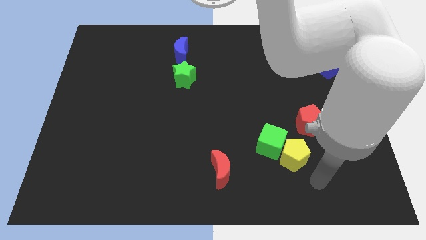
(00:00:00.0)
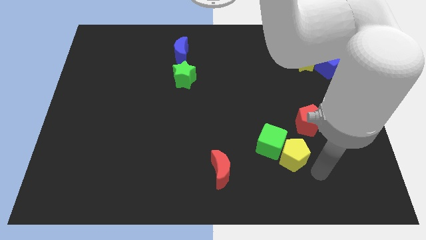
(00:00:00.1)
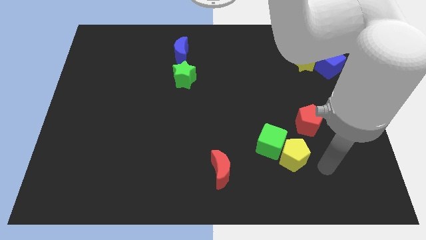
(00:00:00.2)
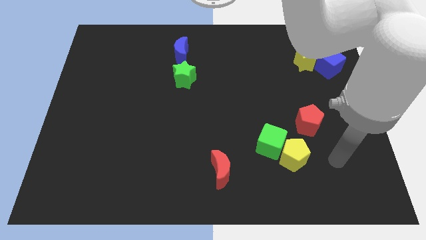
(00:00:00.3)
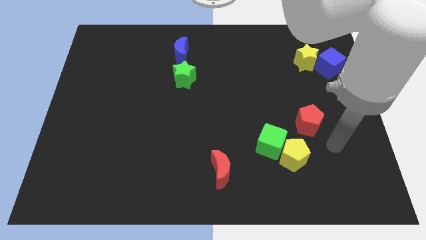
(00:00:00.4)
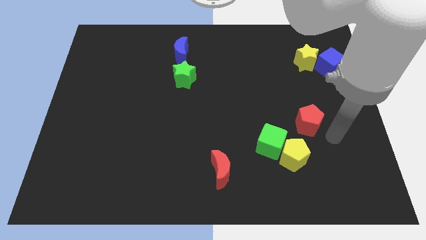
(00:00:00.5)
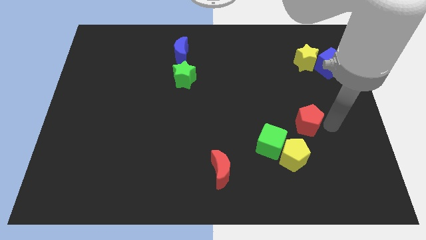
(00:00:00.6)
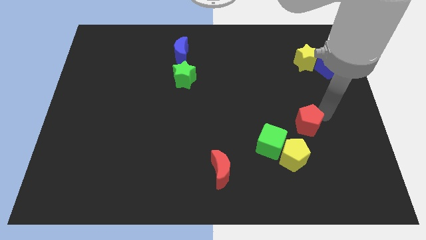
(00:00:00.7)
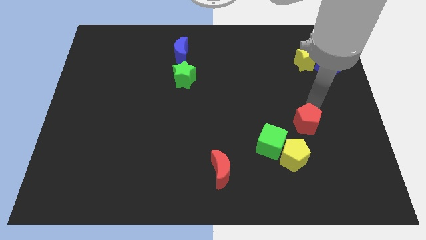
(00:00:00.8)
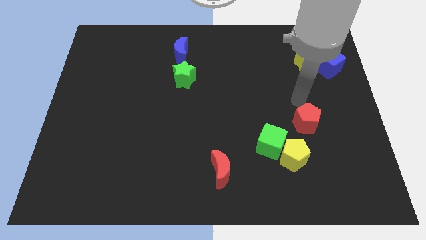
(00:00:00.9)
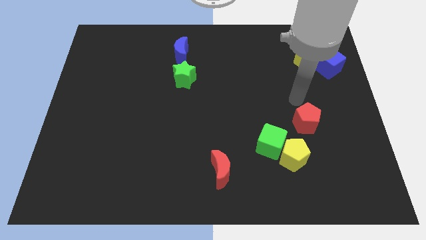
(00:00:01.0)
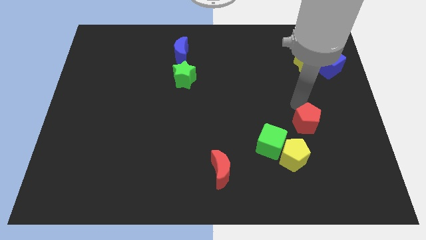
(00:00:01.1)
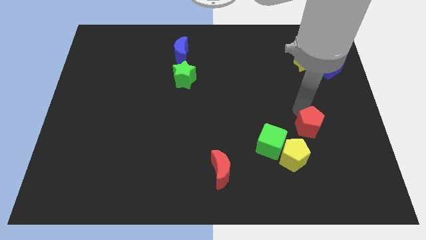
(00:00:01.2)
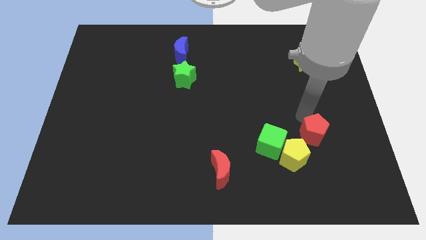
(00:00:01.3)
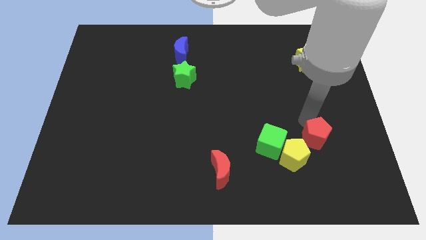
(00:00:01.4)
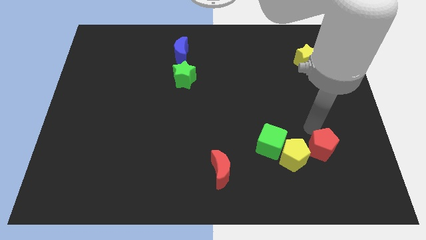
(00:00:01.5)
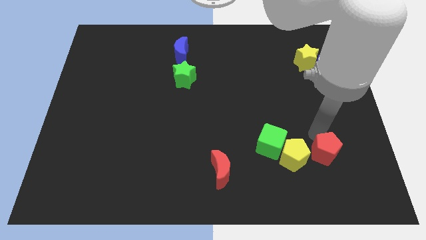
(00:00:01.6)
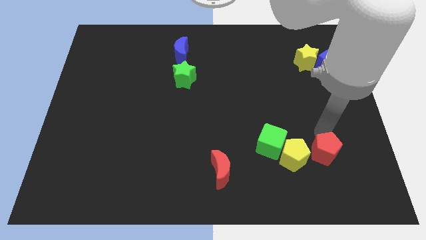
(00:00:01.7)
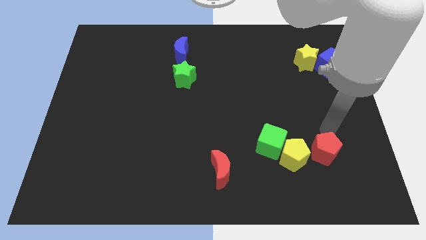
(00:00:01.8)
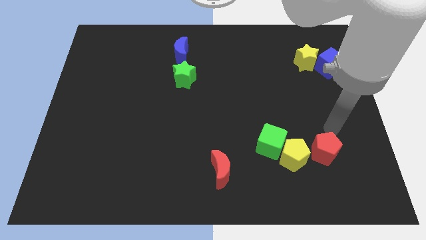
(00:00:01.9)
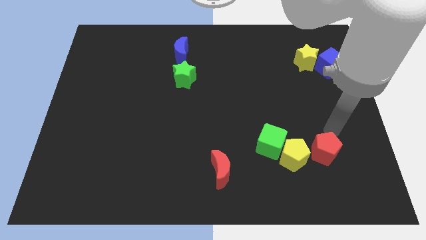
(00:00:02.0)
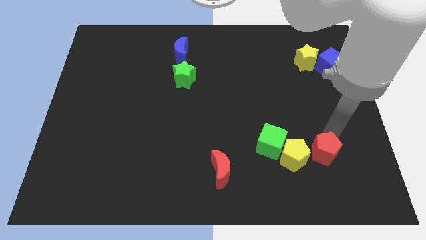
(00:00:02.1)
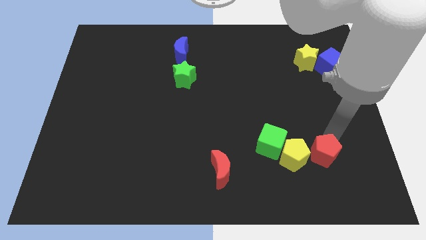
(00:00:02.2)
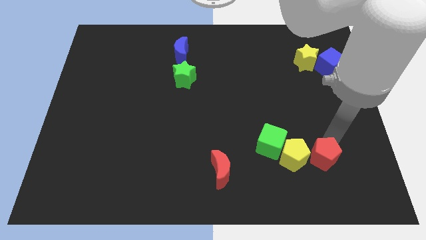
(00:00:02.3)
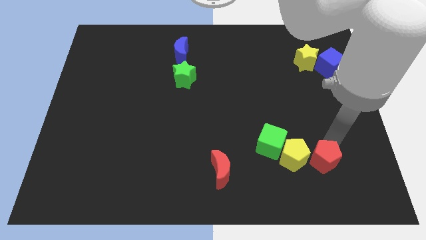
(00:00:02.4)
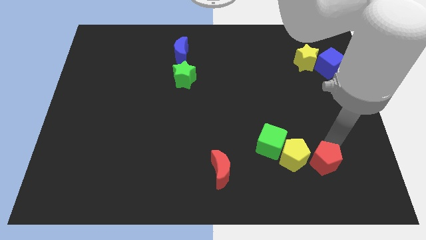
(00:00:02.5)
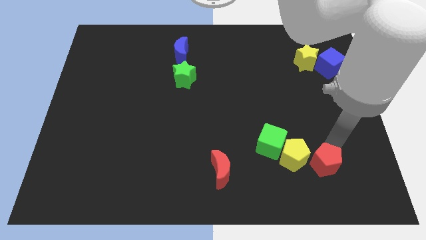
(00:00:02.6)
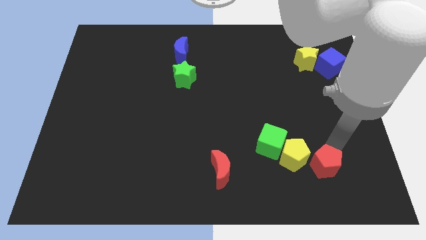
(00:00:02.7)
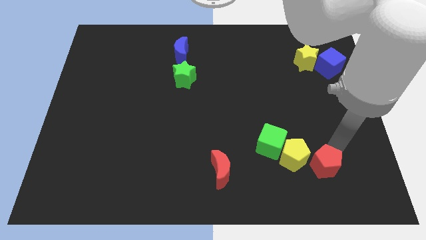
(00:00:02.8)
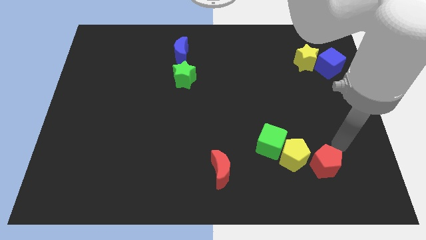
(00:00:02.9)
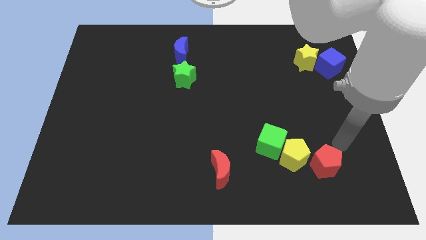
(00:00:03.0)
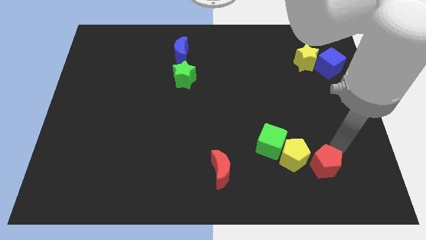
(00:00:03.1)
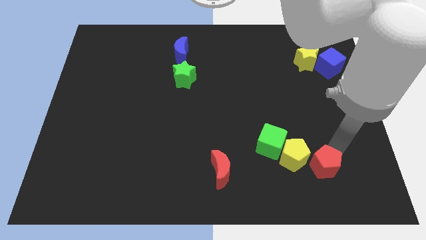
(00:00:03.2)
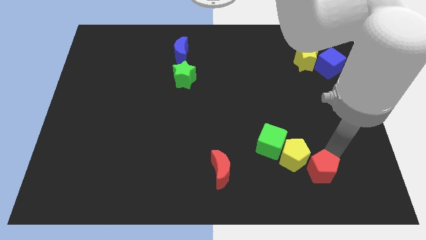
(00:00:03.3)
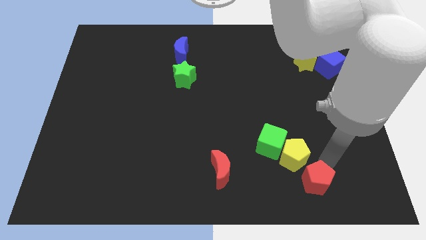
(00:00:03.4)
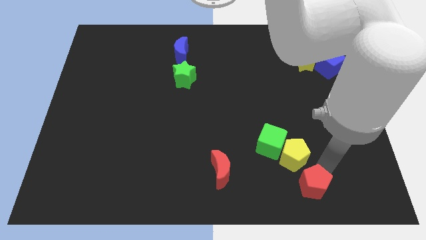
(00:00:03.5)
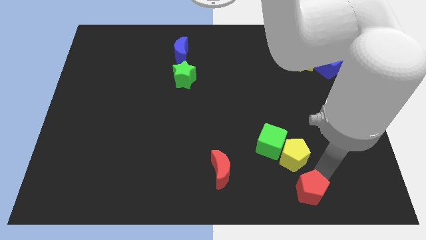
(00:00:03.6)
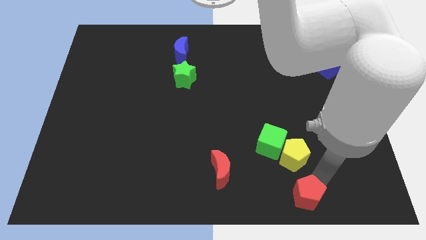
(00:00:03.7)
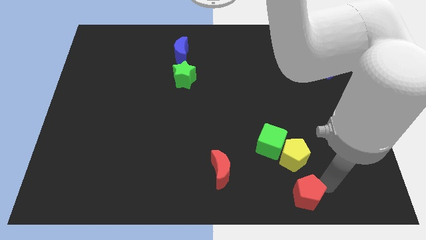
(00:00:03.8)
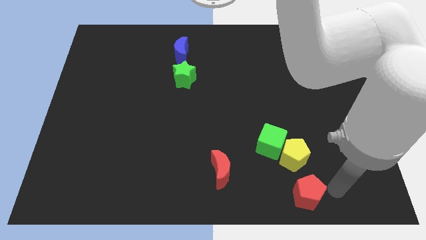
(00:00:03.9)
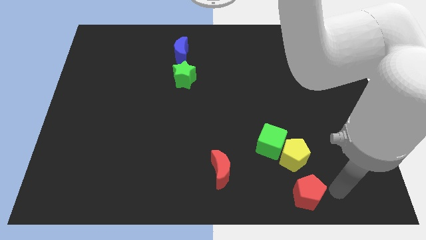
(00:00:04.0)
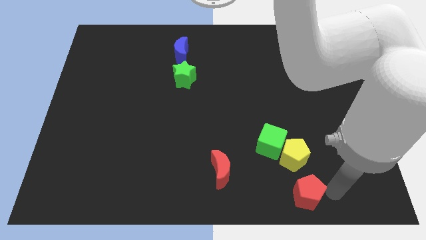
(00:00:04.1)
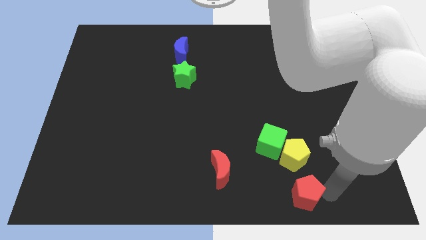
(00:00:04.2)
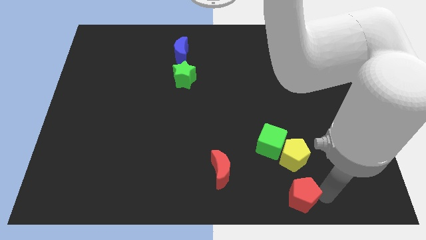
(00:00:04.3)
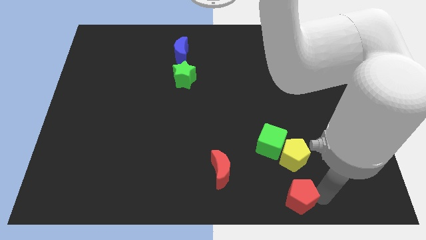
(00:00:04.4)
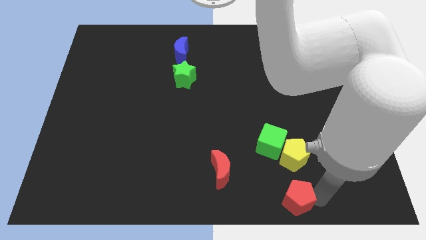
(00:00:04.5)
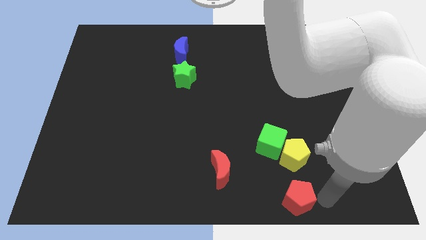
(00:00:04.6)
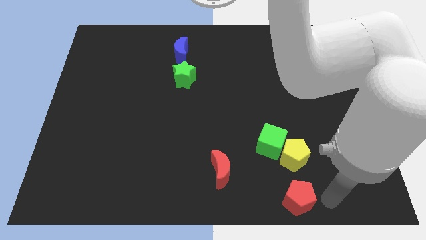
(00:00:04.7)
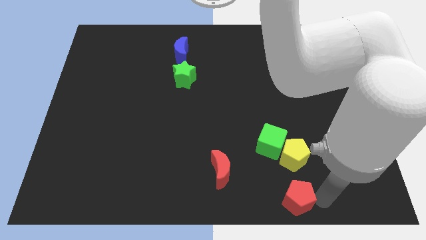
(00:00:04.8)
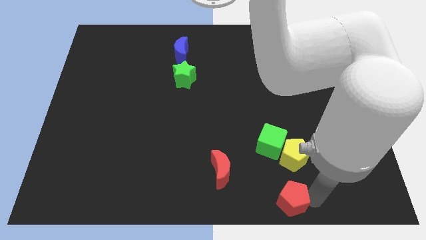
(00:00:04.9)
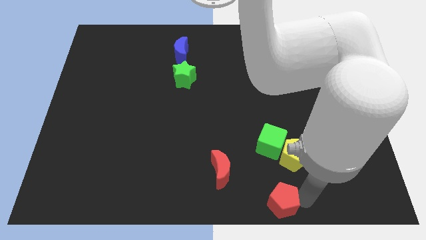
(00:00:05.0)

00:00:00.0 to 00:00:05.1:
put the red pentagon to the bottom side

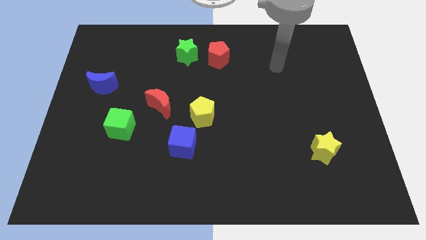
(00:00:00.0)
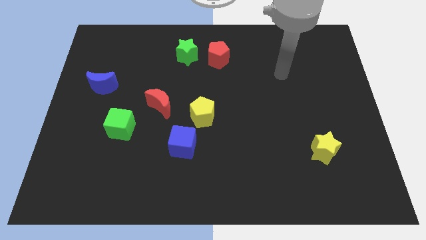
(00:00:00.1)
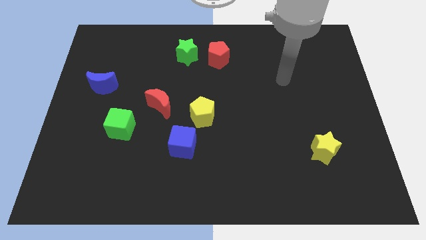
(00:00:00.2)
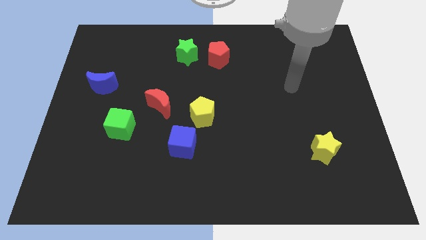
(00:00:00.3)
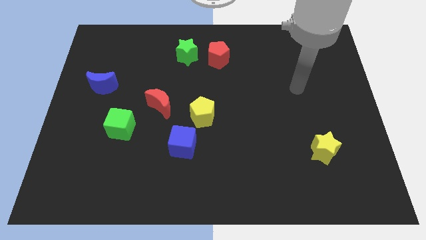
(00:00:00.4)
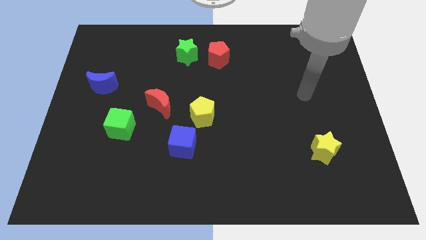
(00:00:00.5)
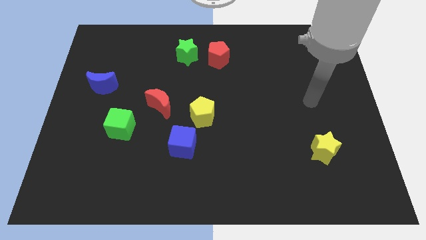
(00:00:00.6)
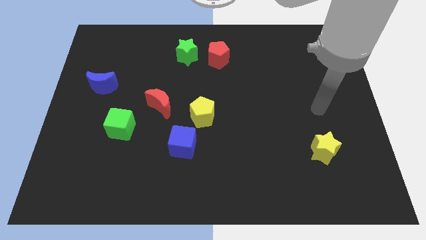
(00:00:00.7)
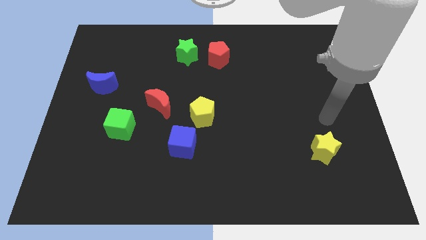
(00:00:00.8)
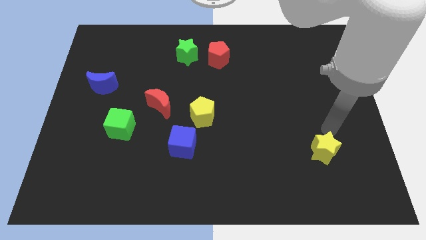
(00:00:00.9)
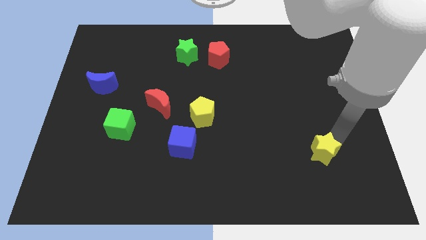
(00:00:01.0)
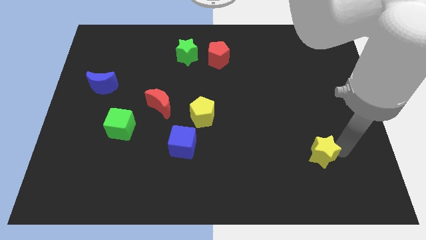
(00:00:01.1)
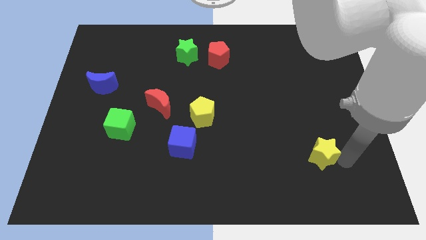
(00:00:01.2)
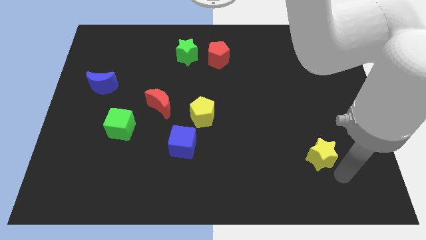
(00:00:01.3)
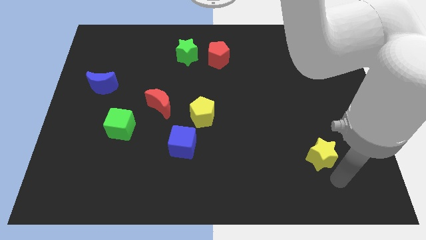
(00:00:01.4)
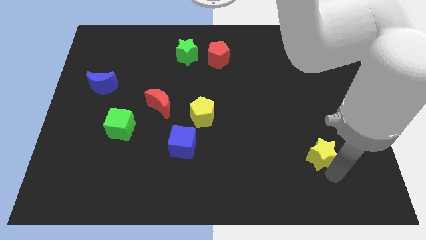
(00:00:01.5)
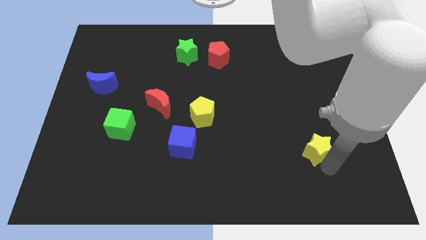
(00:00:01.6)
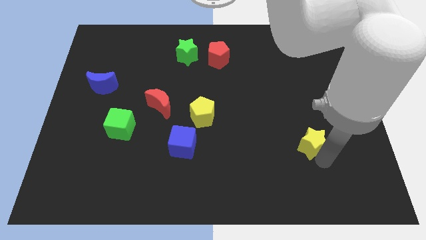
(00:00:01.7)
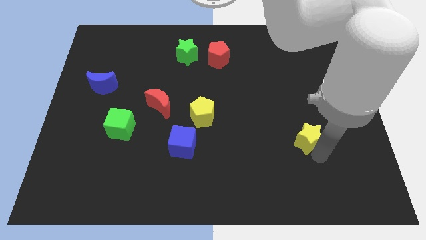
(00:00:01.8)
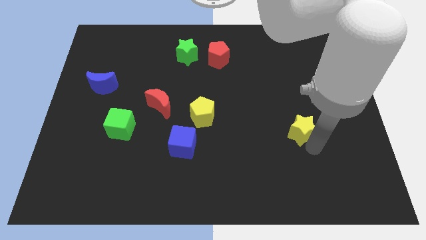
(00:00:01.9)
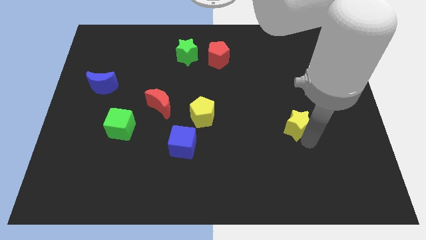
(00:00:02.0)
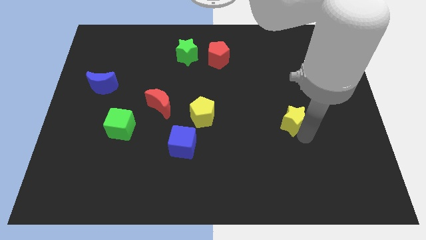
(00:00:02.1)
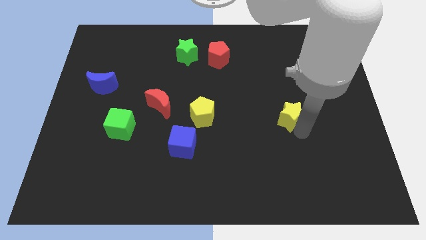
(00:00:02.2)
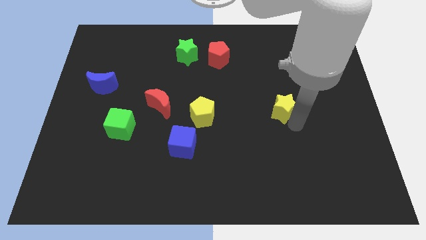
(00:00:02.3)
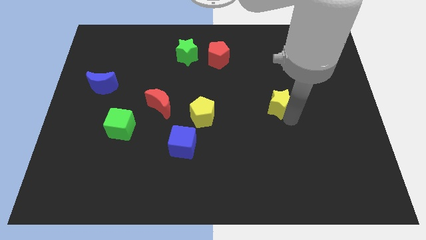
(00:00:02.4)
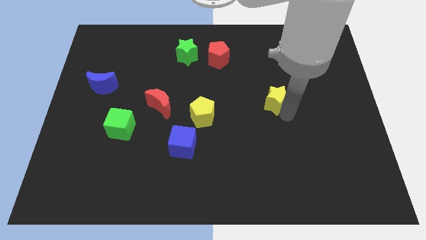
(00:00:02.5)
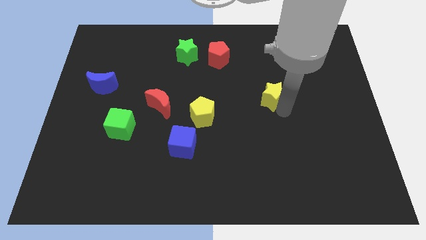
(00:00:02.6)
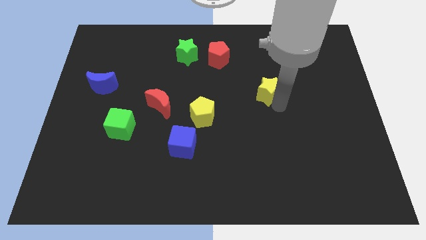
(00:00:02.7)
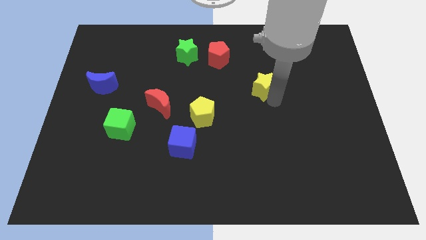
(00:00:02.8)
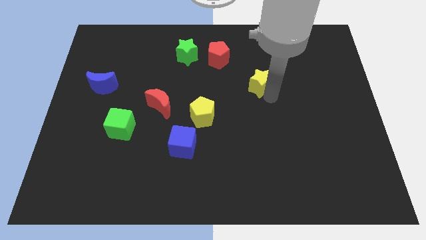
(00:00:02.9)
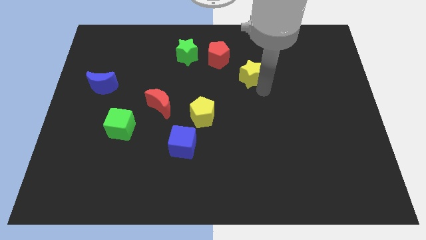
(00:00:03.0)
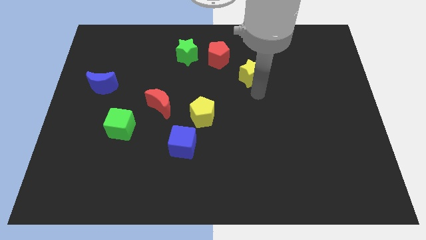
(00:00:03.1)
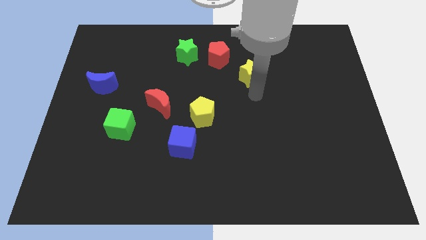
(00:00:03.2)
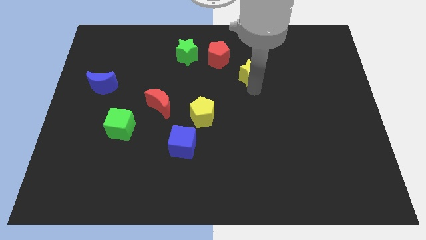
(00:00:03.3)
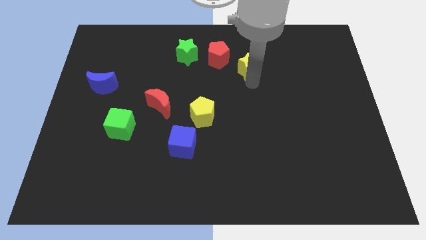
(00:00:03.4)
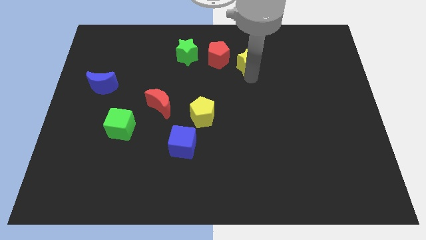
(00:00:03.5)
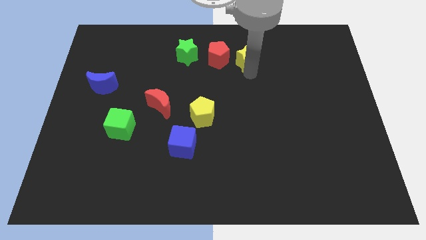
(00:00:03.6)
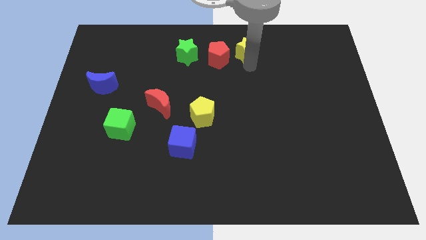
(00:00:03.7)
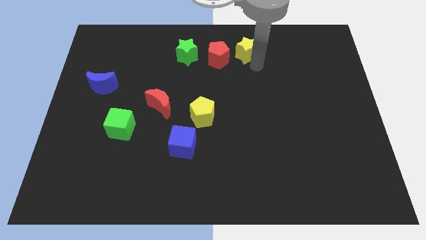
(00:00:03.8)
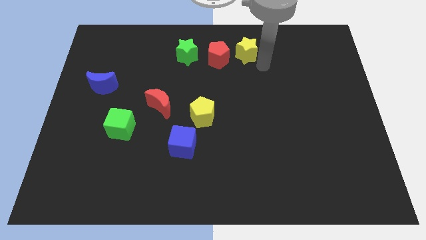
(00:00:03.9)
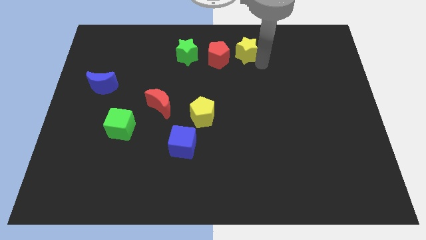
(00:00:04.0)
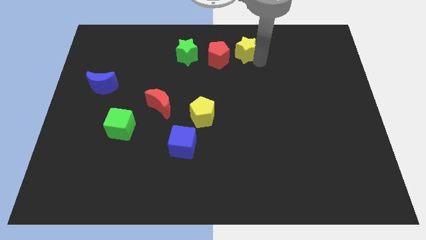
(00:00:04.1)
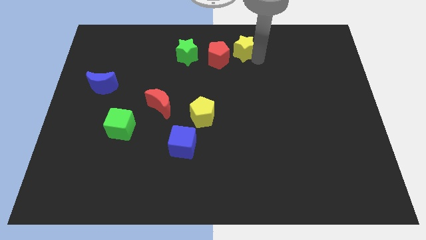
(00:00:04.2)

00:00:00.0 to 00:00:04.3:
put the yellow star to the towards your base
